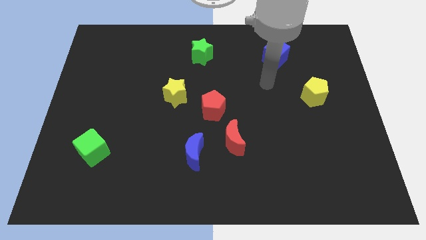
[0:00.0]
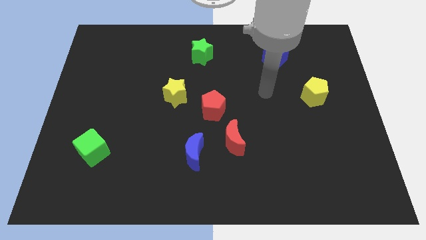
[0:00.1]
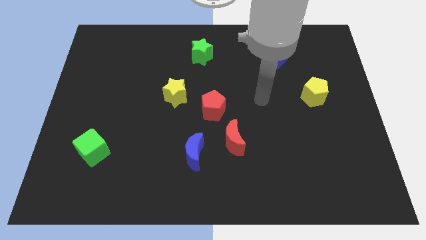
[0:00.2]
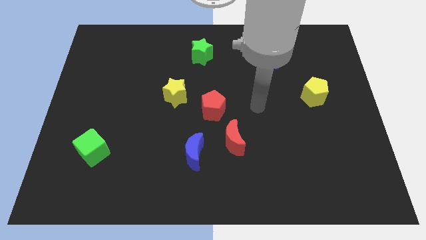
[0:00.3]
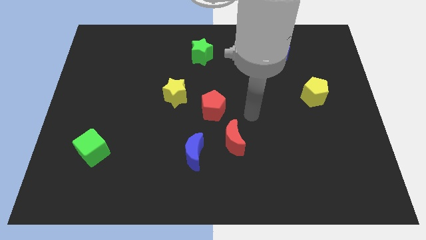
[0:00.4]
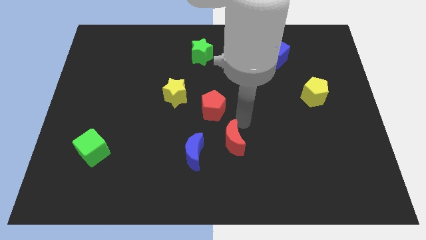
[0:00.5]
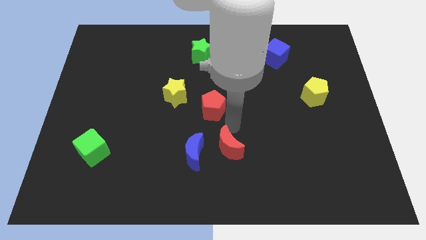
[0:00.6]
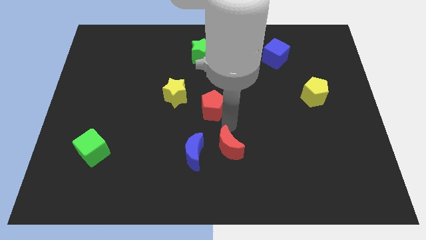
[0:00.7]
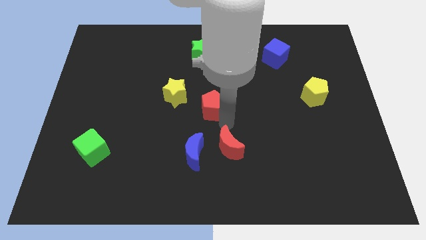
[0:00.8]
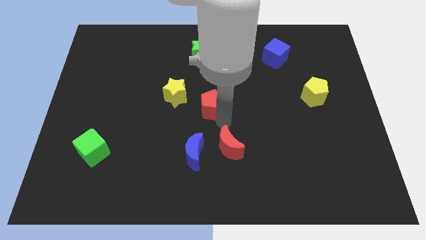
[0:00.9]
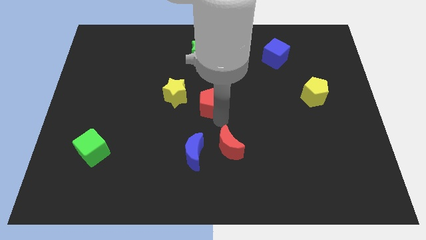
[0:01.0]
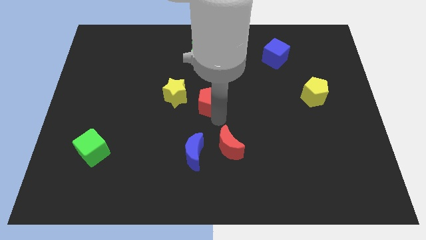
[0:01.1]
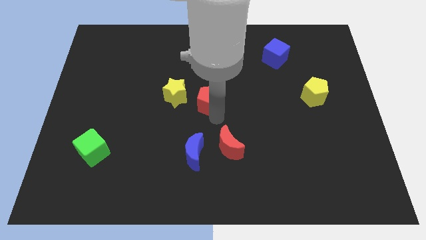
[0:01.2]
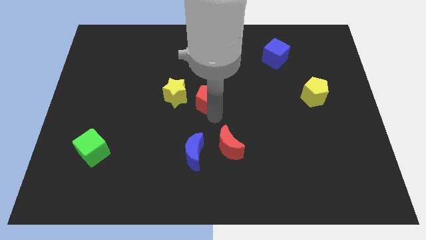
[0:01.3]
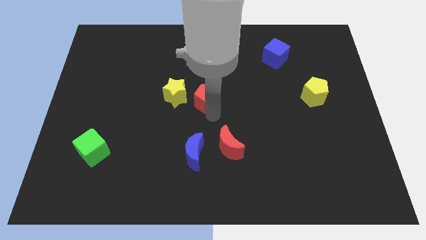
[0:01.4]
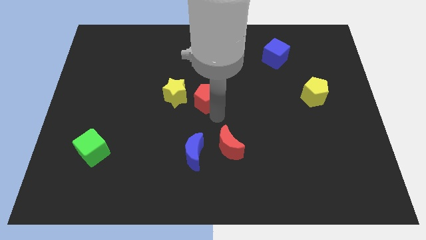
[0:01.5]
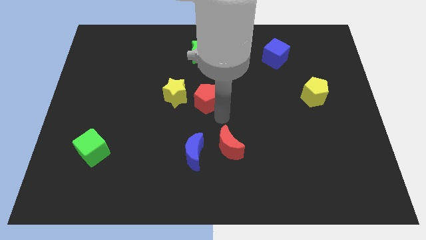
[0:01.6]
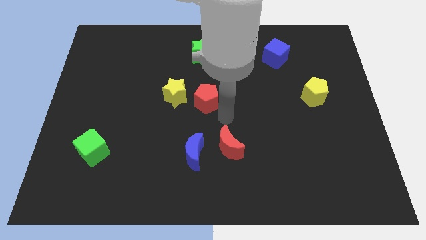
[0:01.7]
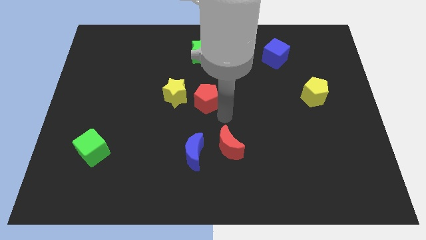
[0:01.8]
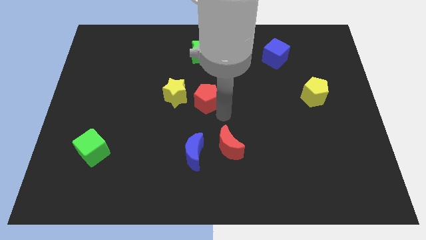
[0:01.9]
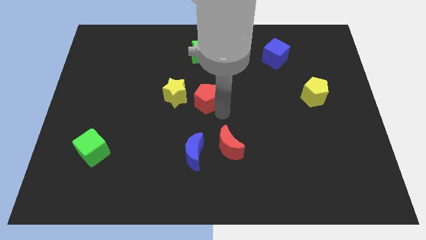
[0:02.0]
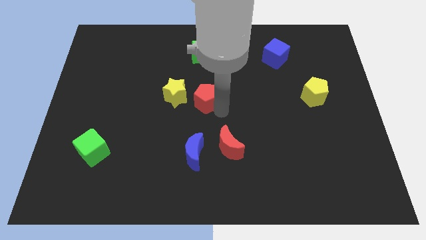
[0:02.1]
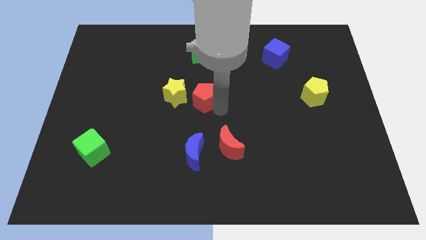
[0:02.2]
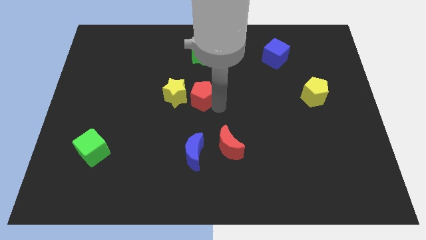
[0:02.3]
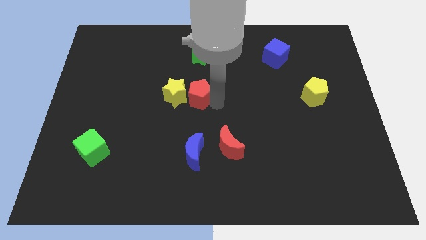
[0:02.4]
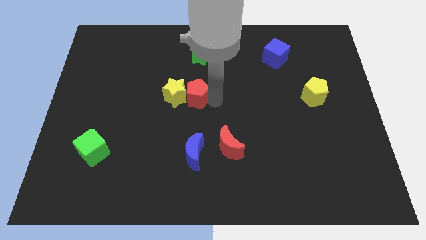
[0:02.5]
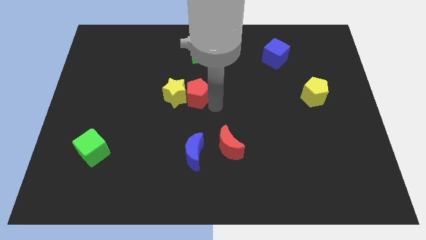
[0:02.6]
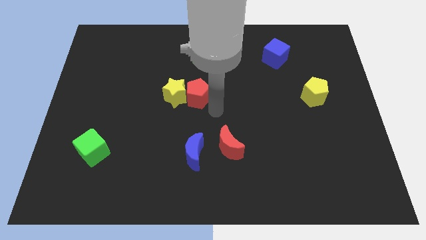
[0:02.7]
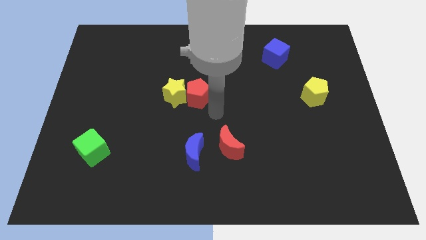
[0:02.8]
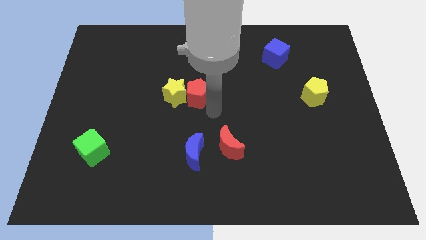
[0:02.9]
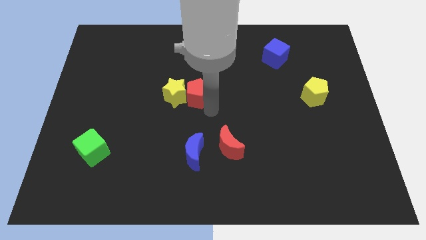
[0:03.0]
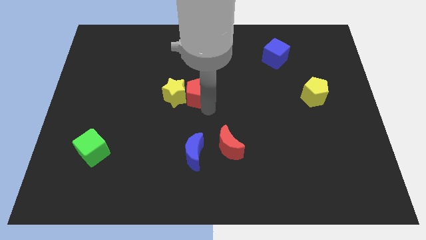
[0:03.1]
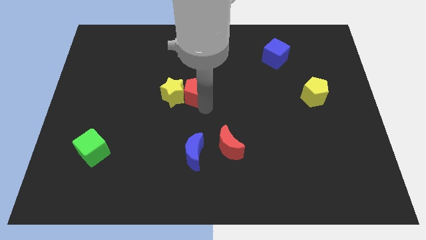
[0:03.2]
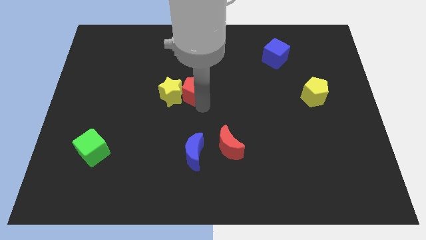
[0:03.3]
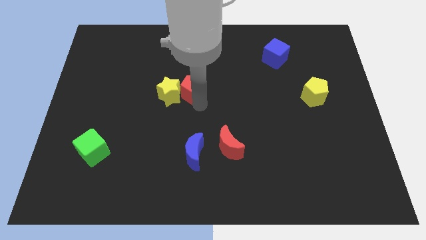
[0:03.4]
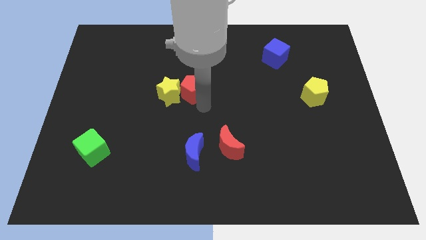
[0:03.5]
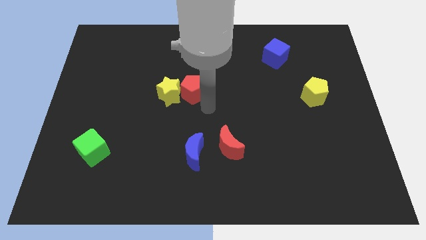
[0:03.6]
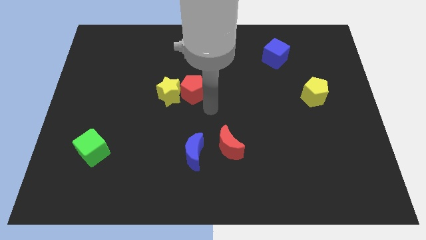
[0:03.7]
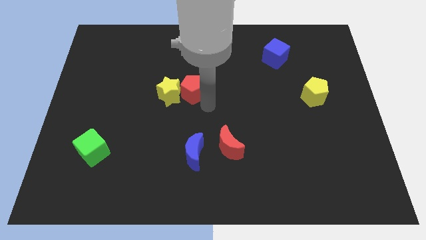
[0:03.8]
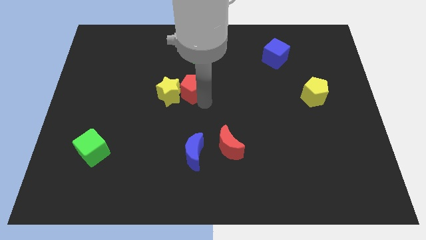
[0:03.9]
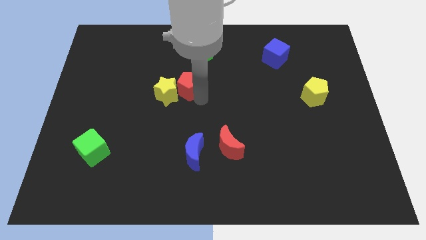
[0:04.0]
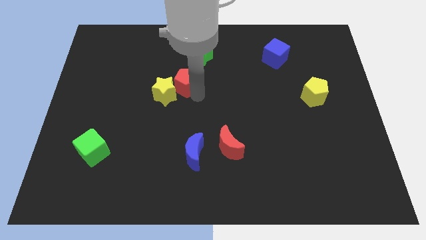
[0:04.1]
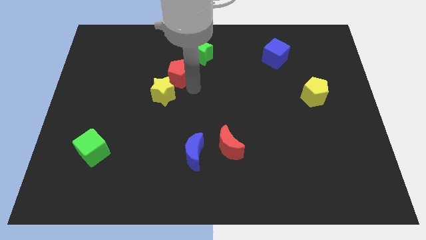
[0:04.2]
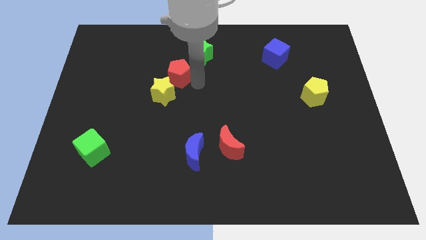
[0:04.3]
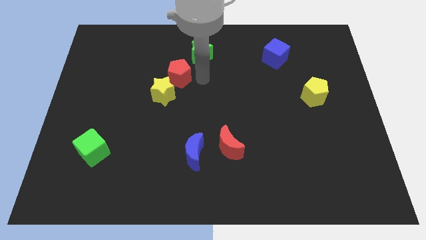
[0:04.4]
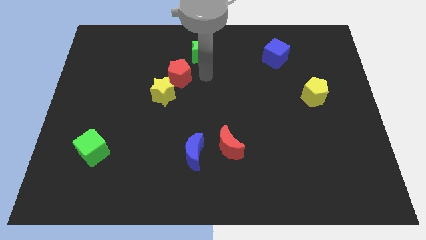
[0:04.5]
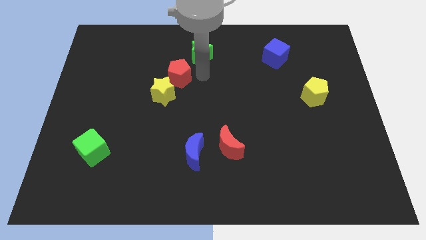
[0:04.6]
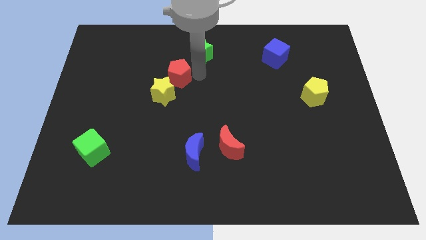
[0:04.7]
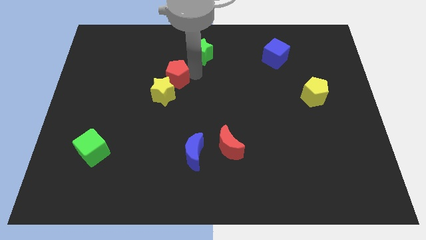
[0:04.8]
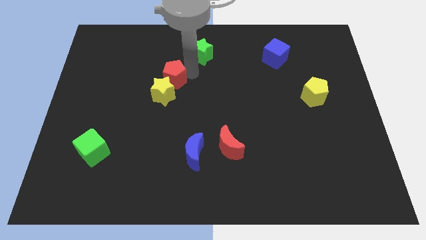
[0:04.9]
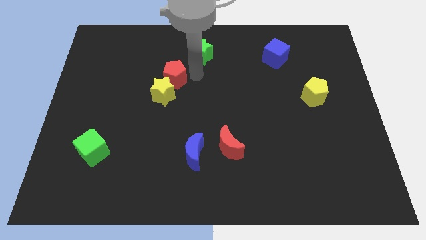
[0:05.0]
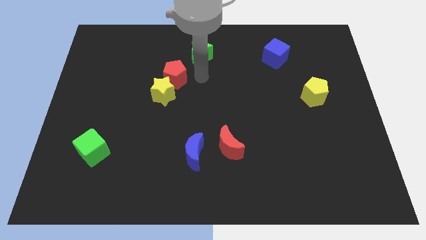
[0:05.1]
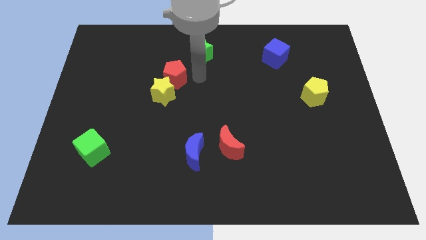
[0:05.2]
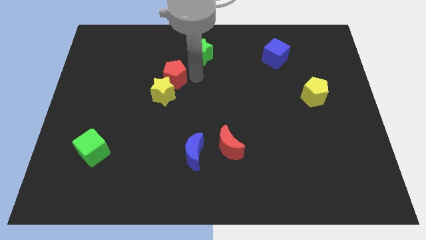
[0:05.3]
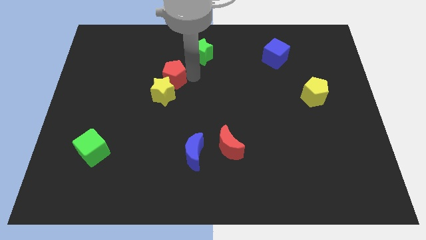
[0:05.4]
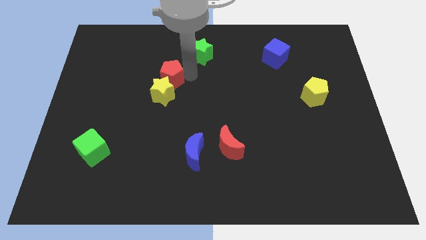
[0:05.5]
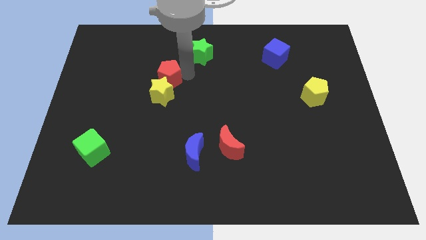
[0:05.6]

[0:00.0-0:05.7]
put the red pentagon to the top left side of the yellow star

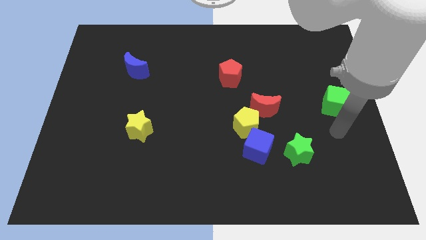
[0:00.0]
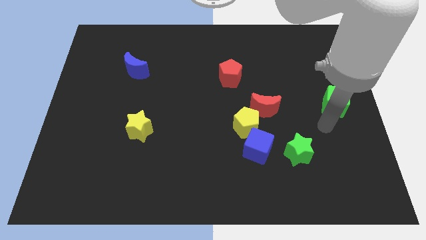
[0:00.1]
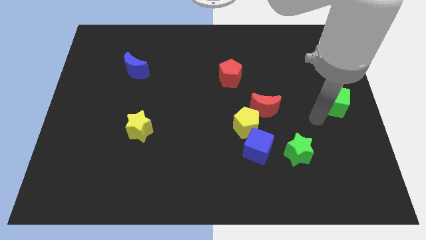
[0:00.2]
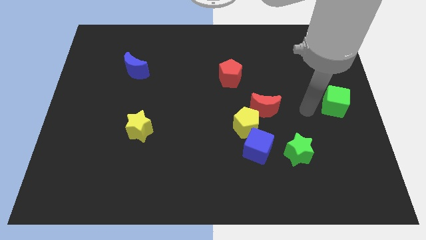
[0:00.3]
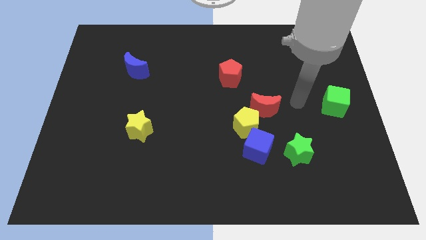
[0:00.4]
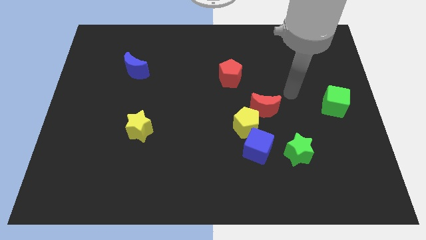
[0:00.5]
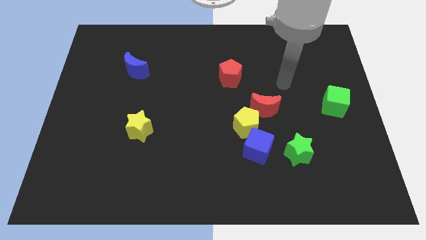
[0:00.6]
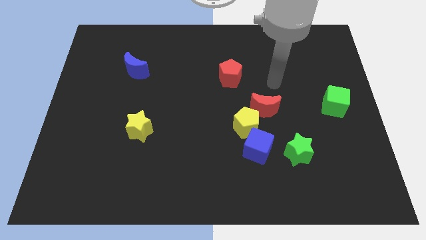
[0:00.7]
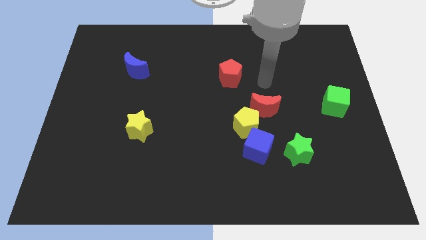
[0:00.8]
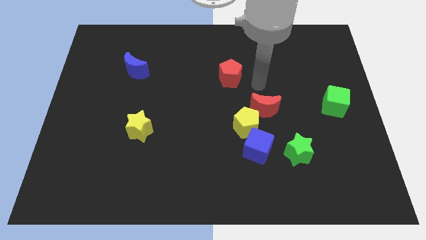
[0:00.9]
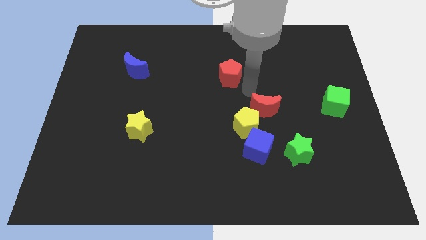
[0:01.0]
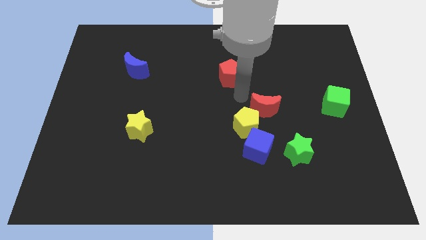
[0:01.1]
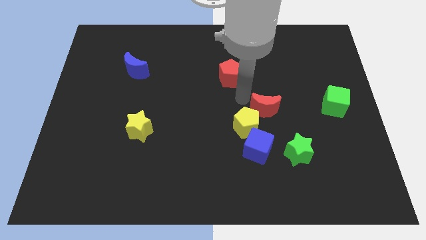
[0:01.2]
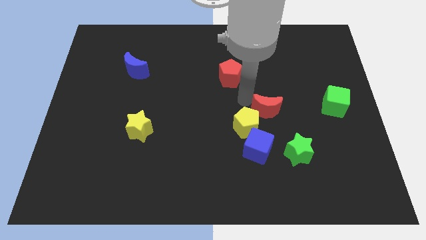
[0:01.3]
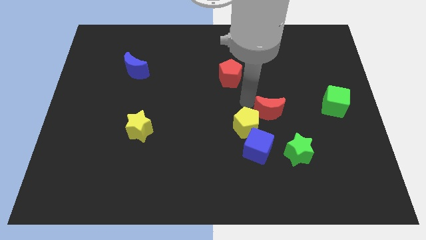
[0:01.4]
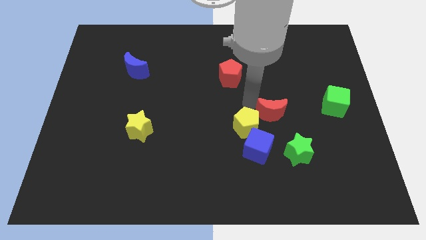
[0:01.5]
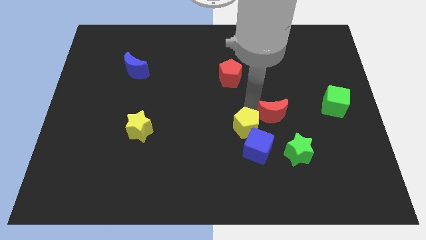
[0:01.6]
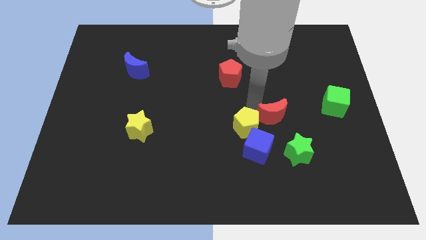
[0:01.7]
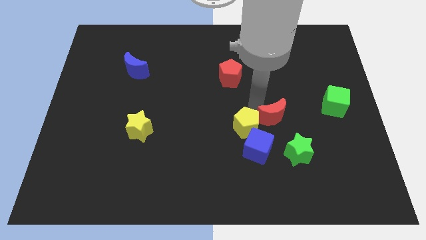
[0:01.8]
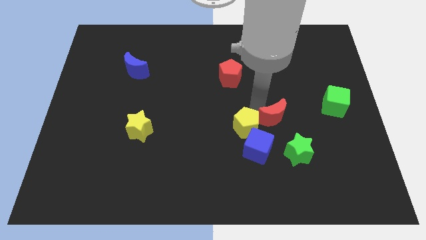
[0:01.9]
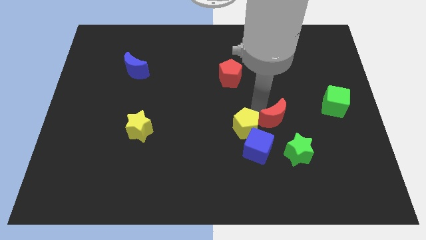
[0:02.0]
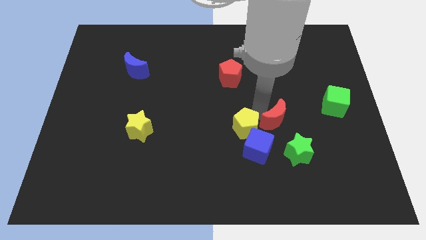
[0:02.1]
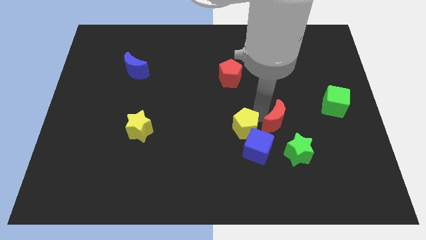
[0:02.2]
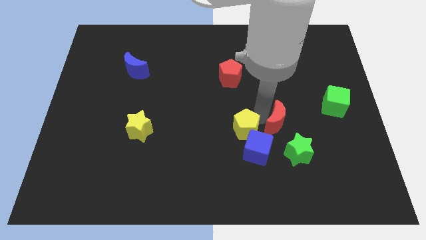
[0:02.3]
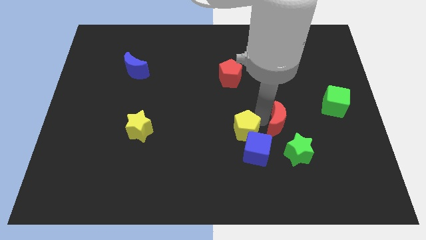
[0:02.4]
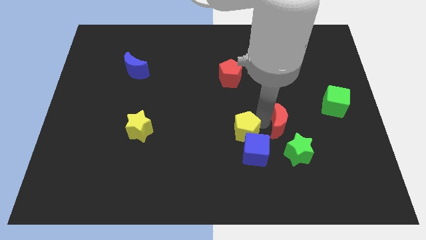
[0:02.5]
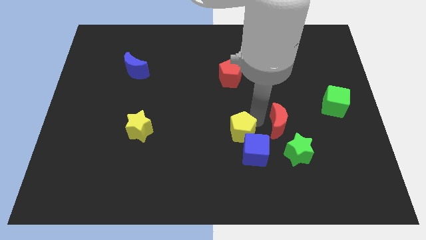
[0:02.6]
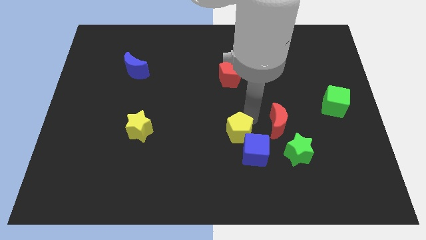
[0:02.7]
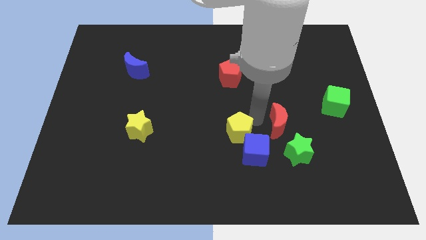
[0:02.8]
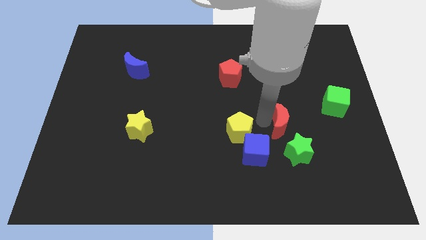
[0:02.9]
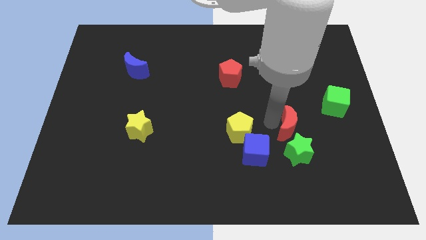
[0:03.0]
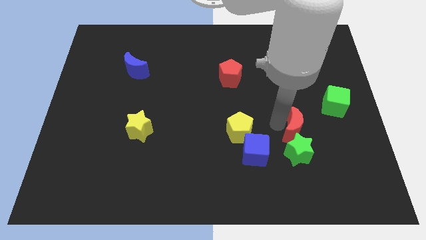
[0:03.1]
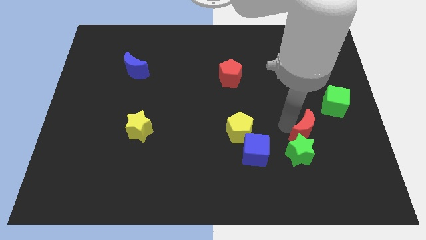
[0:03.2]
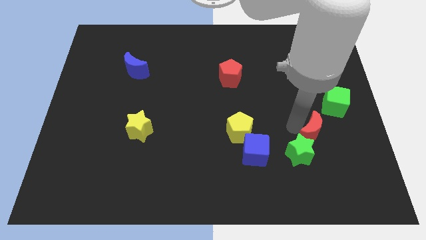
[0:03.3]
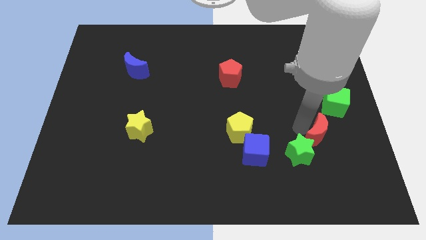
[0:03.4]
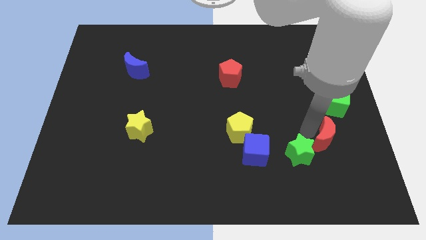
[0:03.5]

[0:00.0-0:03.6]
put the red moon to the bottom of the green cube
